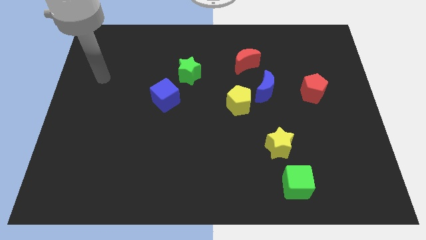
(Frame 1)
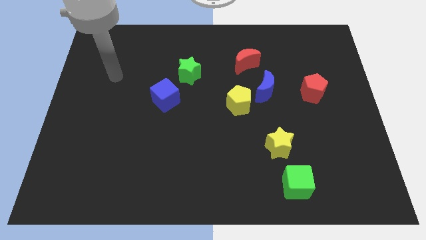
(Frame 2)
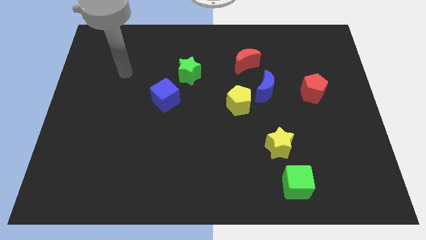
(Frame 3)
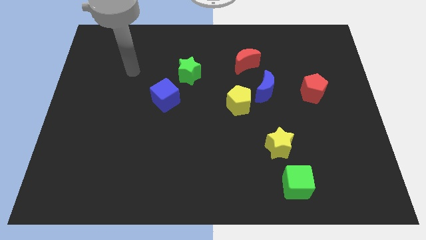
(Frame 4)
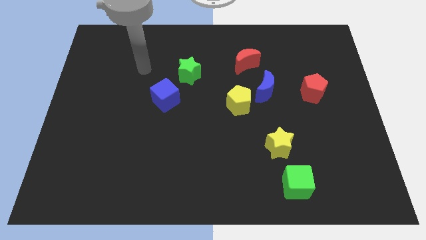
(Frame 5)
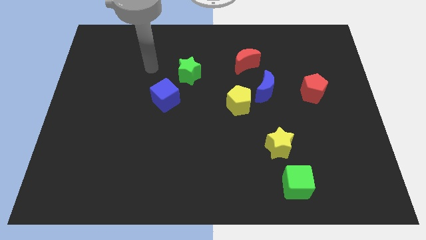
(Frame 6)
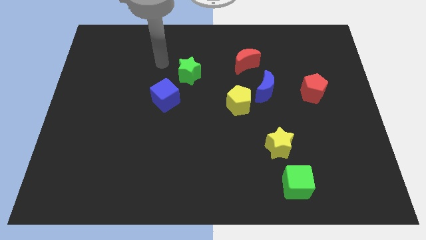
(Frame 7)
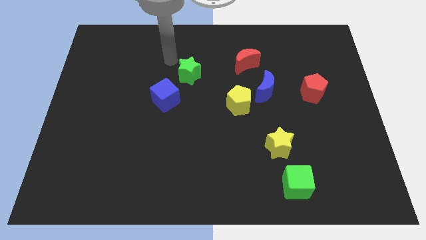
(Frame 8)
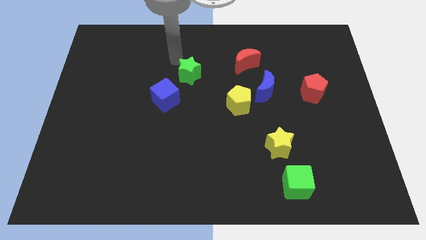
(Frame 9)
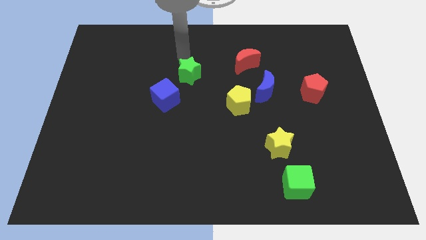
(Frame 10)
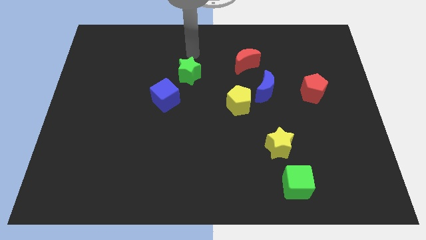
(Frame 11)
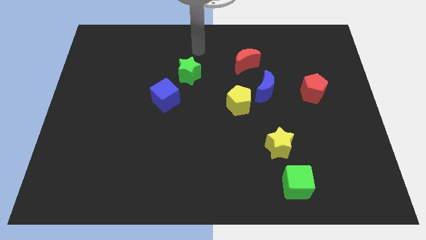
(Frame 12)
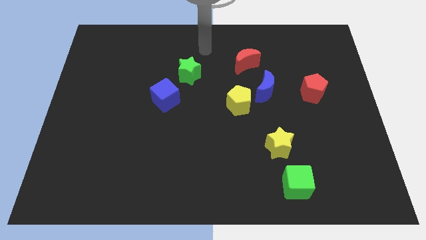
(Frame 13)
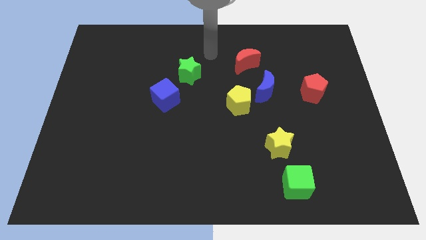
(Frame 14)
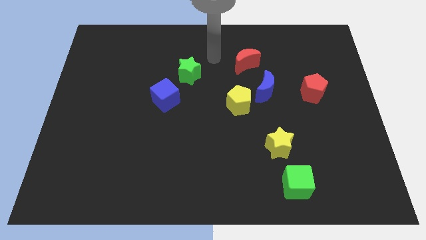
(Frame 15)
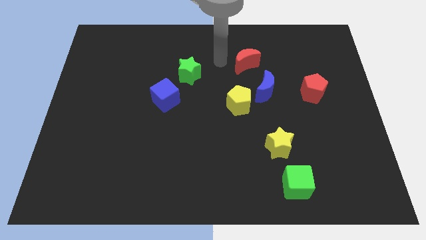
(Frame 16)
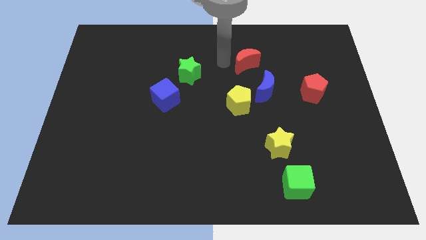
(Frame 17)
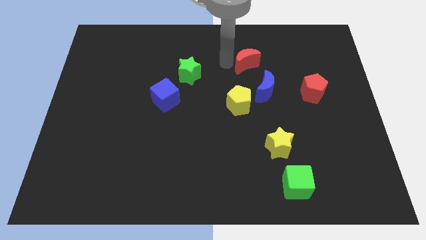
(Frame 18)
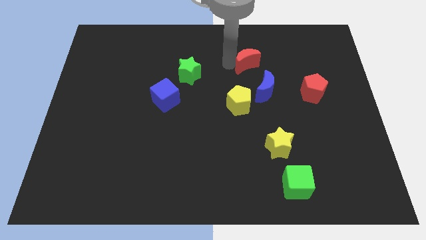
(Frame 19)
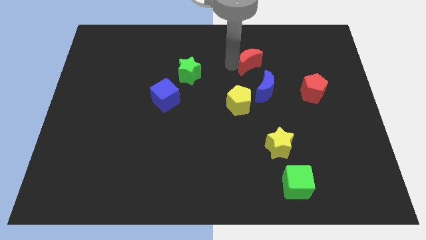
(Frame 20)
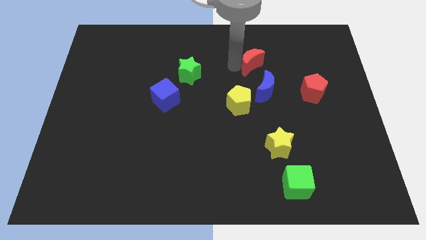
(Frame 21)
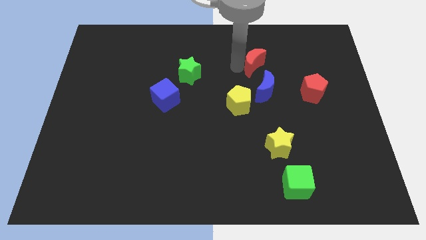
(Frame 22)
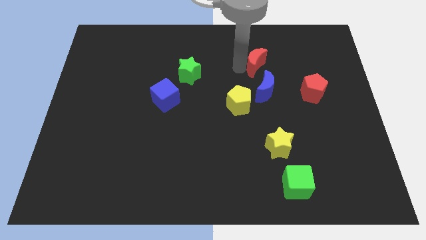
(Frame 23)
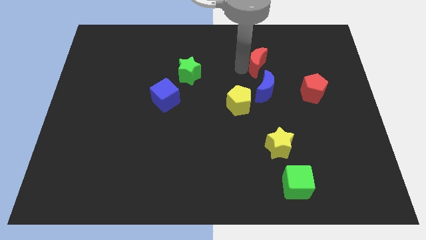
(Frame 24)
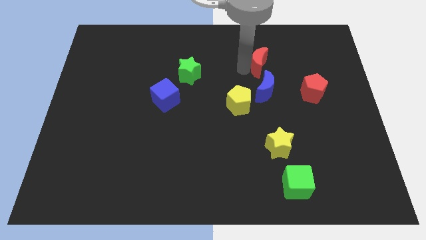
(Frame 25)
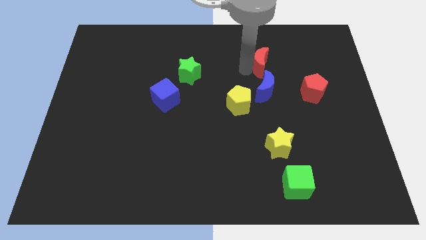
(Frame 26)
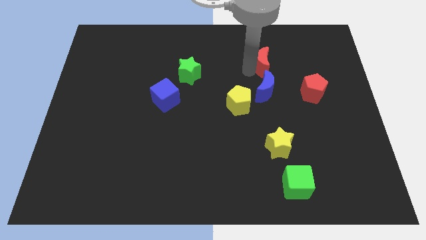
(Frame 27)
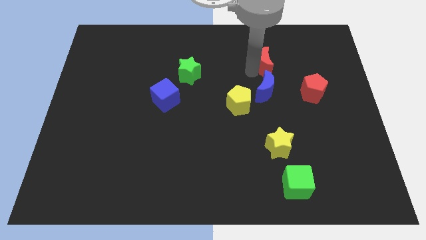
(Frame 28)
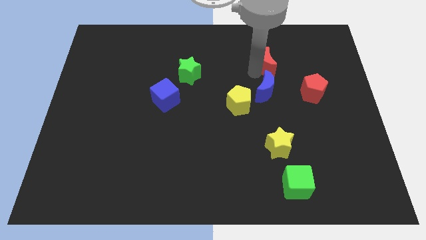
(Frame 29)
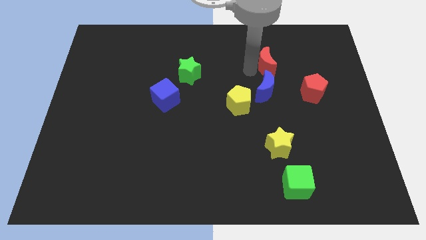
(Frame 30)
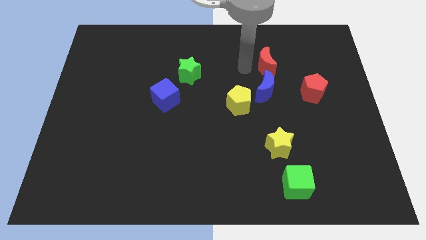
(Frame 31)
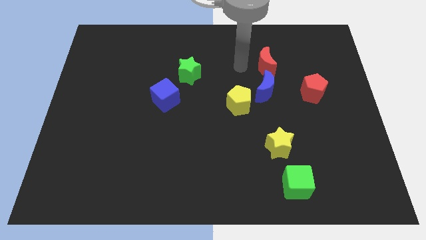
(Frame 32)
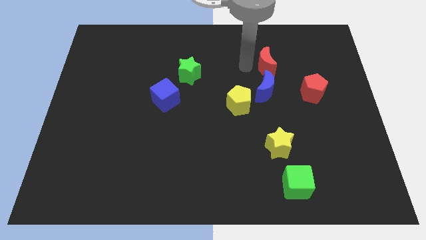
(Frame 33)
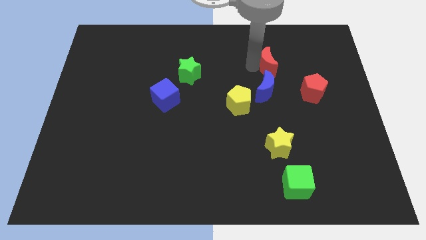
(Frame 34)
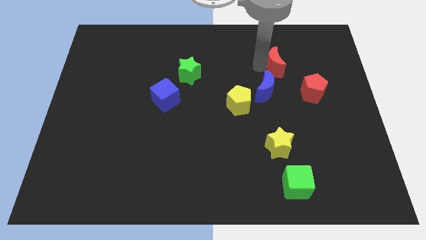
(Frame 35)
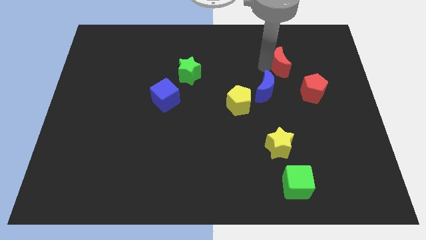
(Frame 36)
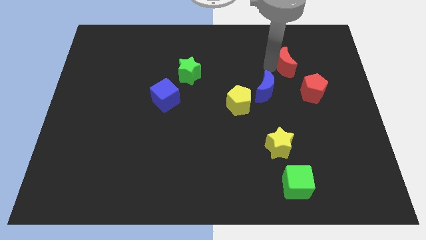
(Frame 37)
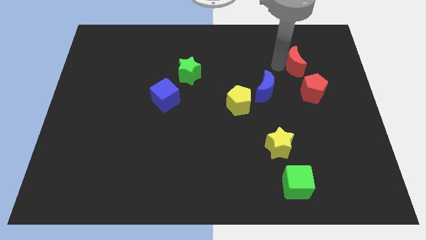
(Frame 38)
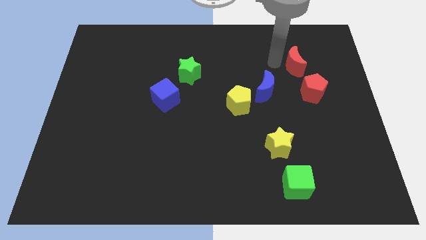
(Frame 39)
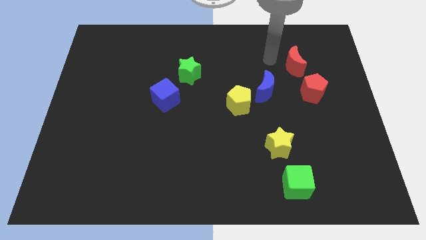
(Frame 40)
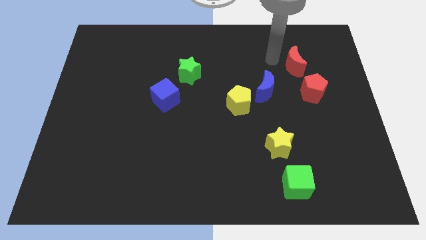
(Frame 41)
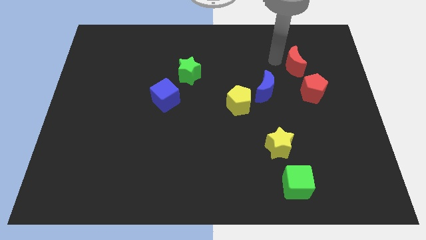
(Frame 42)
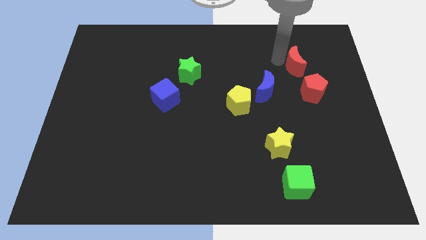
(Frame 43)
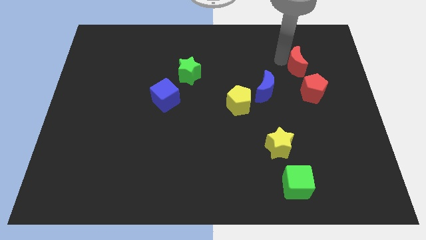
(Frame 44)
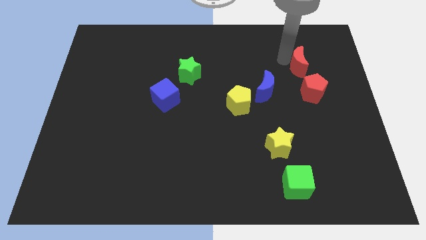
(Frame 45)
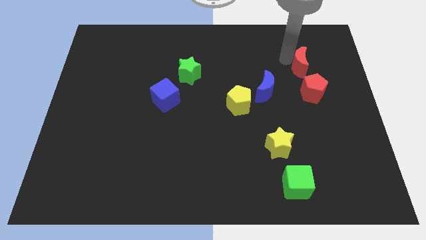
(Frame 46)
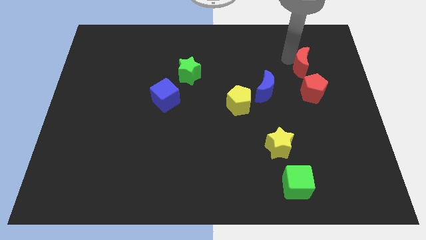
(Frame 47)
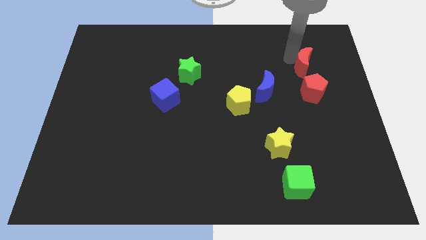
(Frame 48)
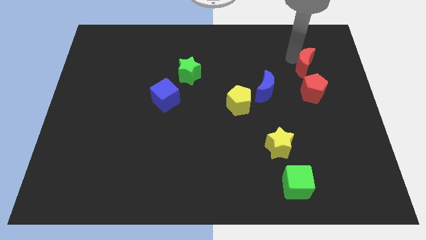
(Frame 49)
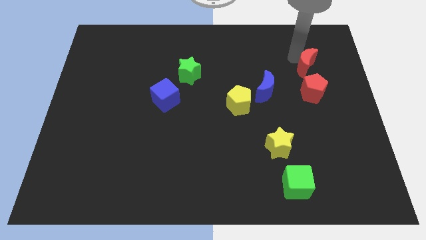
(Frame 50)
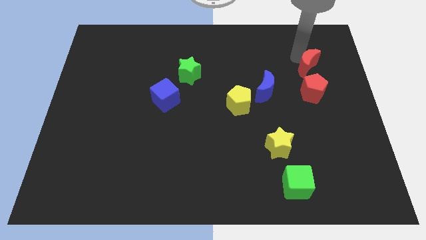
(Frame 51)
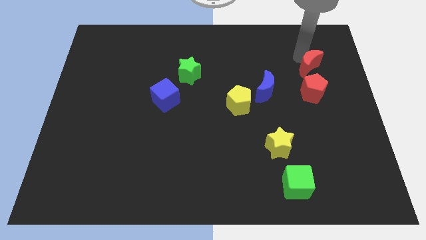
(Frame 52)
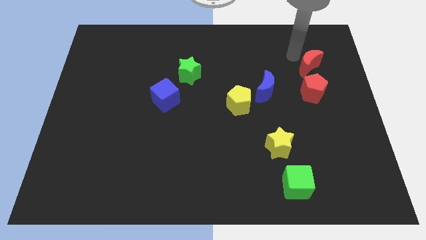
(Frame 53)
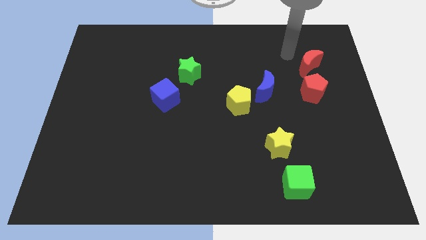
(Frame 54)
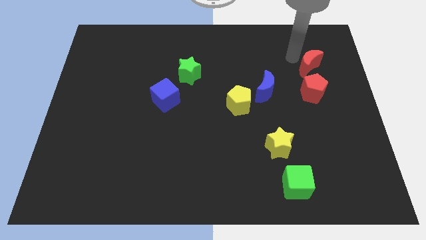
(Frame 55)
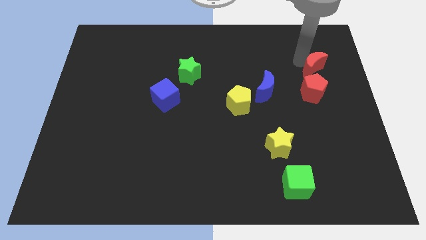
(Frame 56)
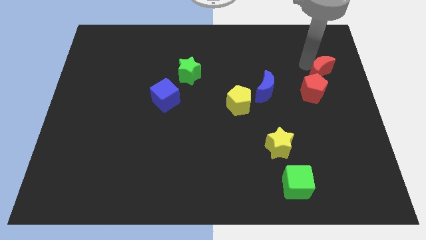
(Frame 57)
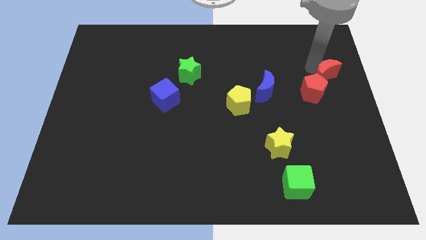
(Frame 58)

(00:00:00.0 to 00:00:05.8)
put the red moon to the right side of the board
